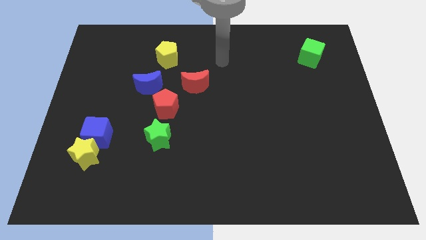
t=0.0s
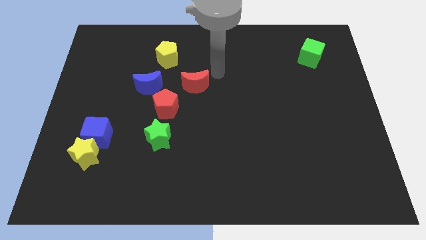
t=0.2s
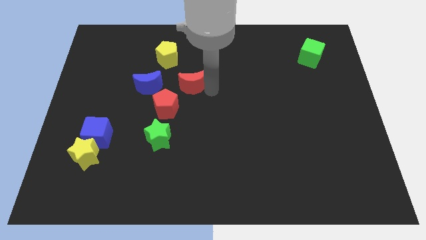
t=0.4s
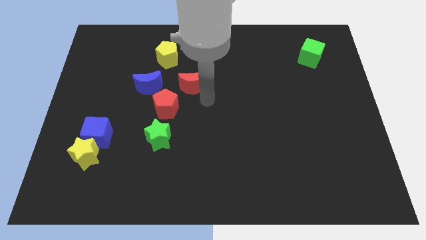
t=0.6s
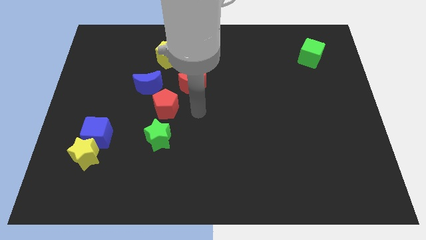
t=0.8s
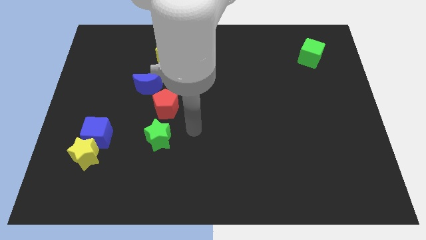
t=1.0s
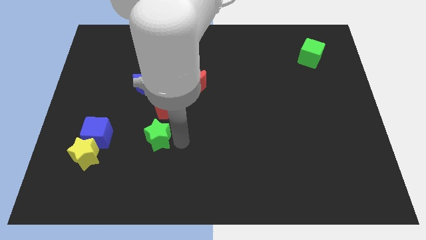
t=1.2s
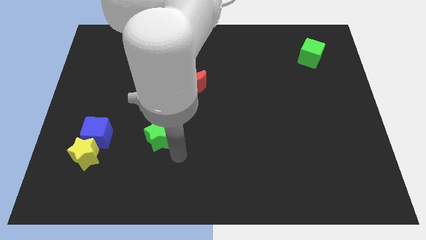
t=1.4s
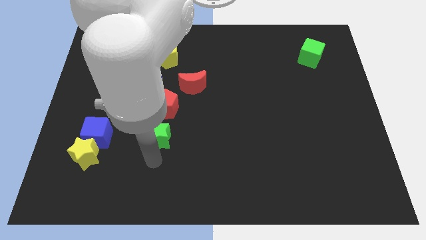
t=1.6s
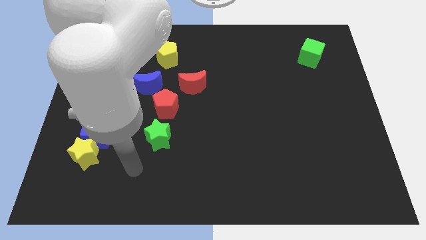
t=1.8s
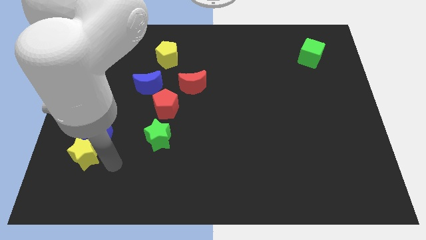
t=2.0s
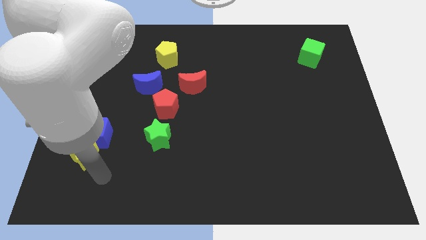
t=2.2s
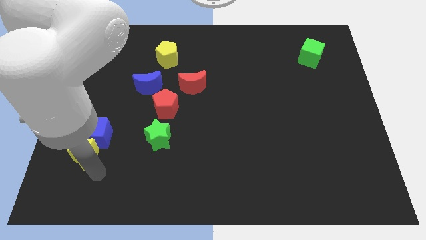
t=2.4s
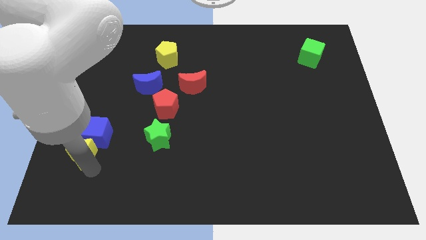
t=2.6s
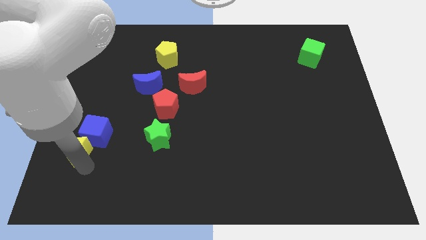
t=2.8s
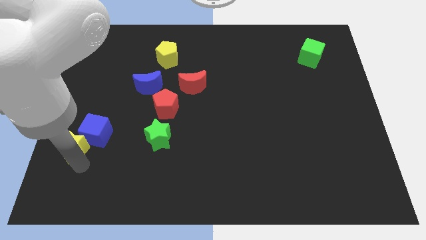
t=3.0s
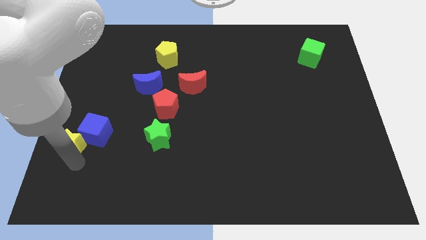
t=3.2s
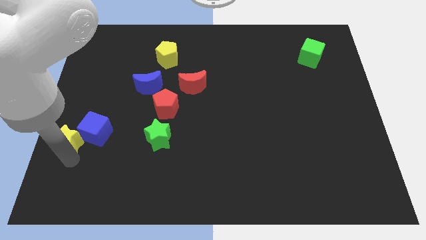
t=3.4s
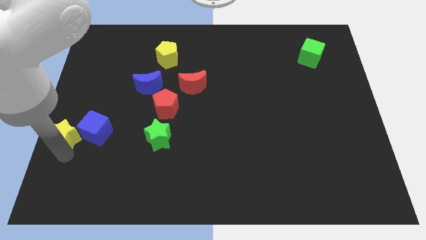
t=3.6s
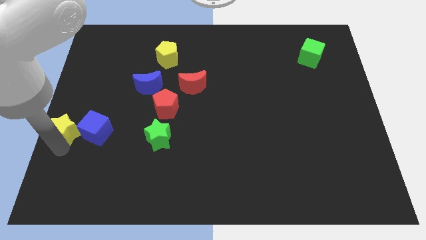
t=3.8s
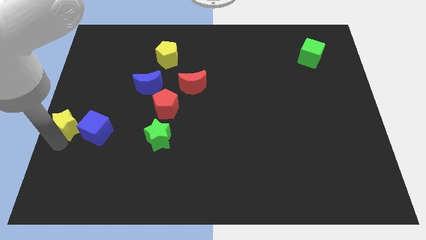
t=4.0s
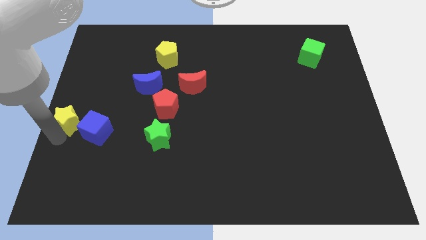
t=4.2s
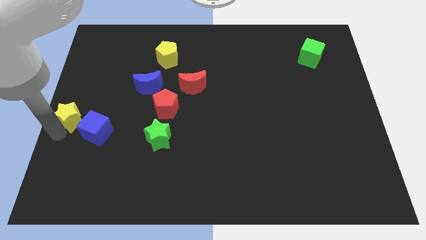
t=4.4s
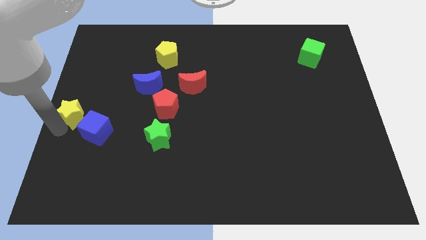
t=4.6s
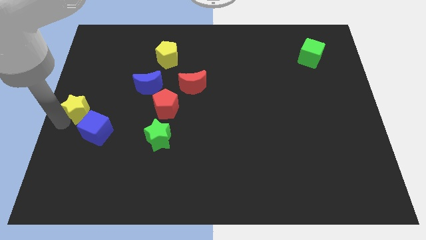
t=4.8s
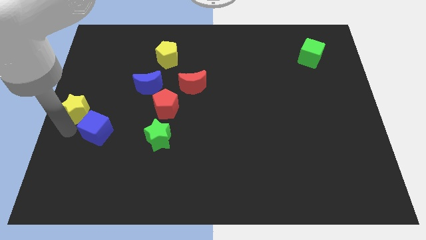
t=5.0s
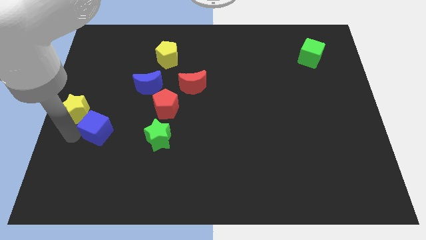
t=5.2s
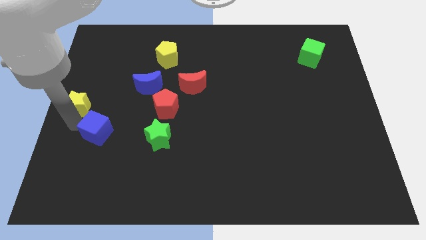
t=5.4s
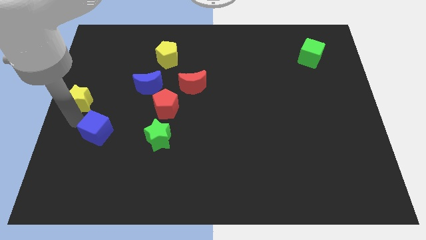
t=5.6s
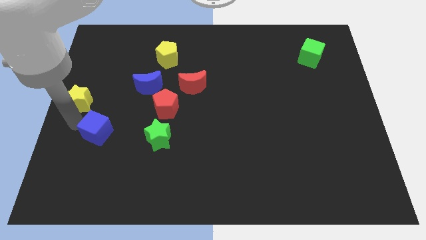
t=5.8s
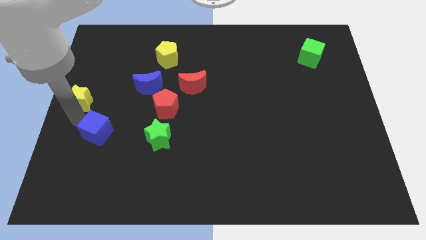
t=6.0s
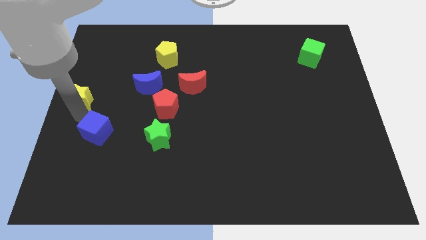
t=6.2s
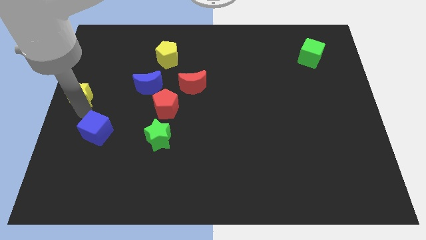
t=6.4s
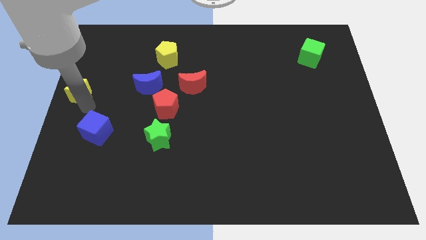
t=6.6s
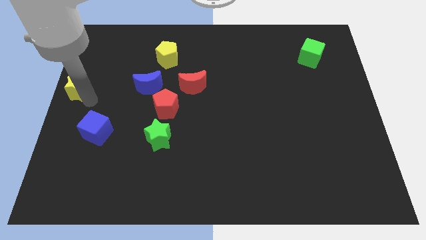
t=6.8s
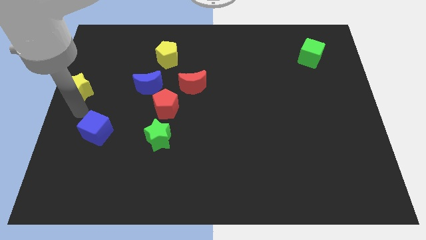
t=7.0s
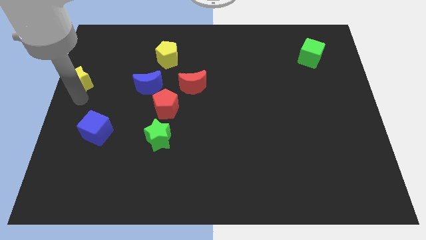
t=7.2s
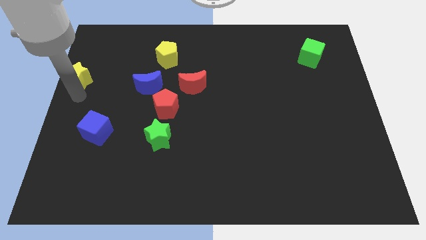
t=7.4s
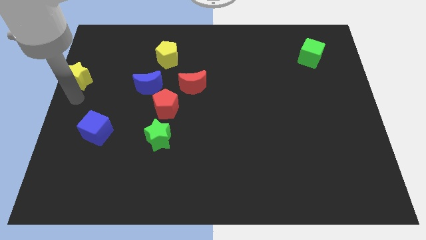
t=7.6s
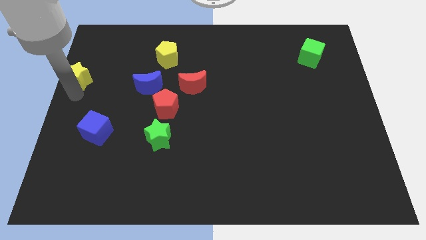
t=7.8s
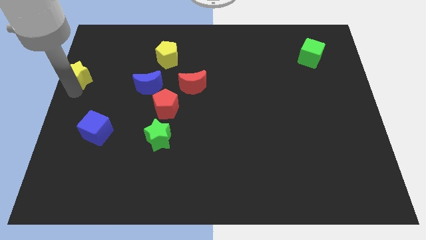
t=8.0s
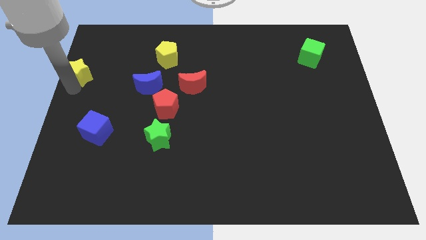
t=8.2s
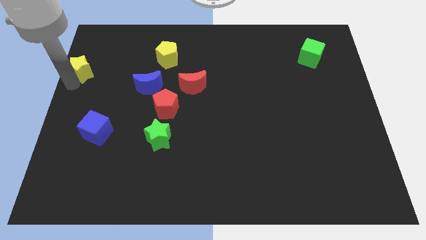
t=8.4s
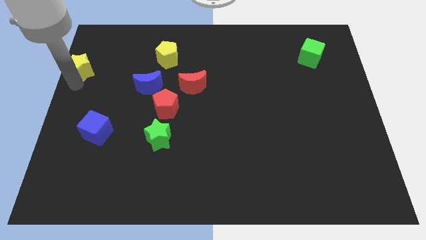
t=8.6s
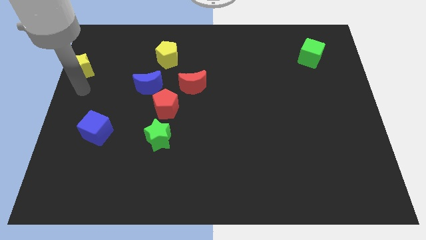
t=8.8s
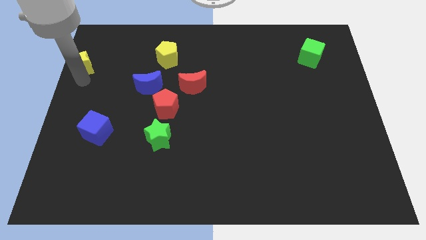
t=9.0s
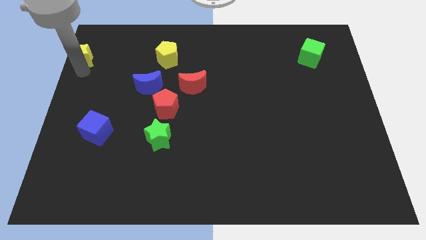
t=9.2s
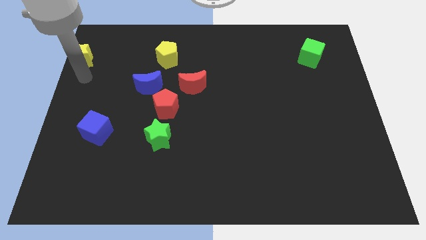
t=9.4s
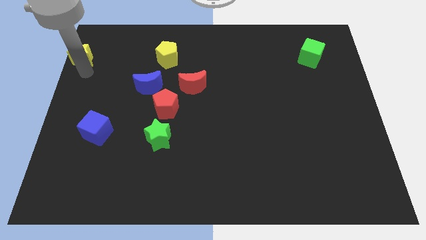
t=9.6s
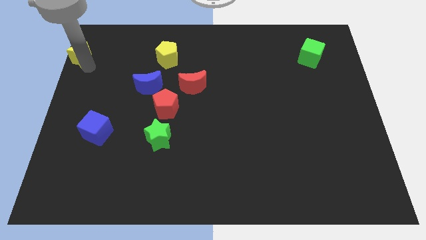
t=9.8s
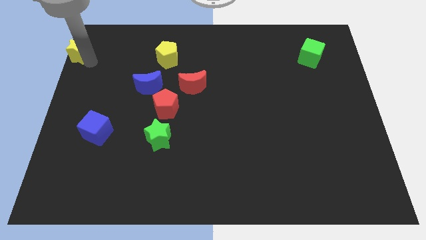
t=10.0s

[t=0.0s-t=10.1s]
push the yellow star to the top left of the board

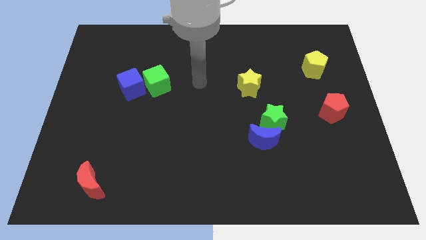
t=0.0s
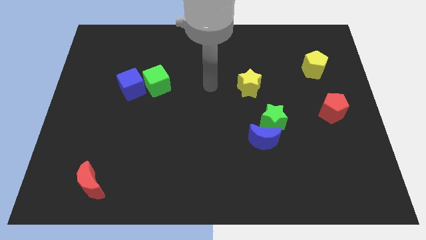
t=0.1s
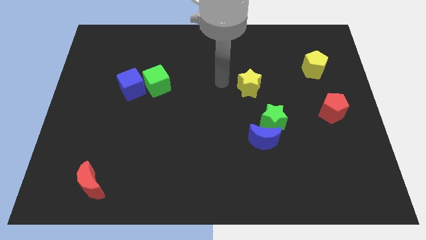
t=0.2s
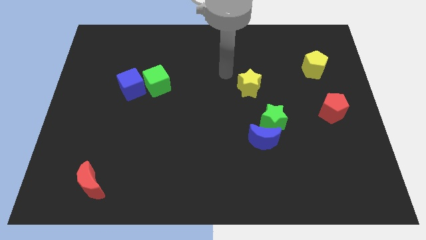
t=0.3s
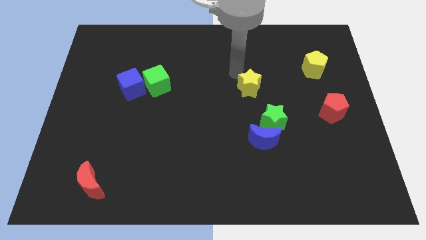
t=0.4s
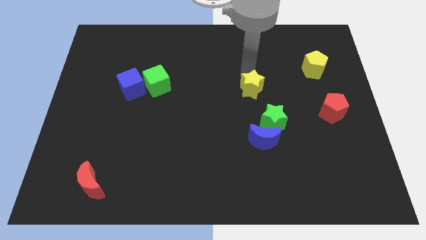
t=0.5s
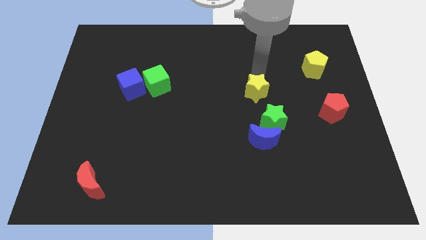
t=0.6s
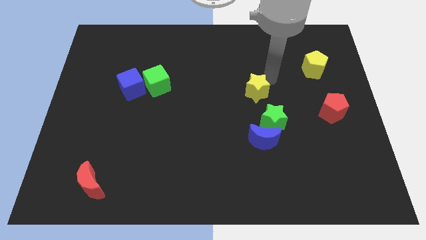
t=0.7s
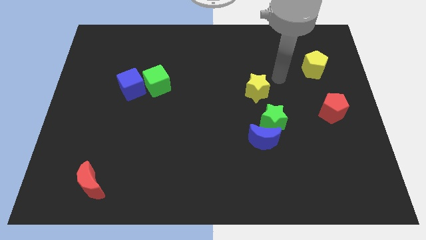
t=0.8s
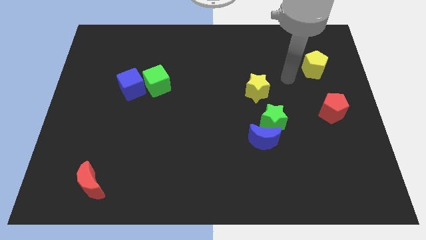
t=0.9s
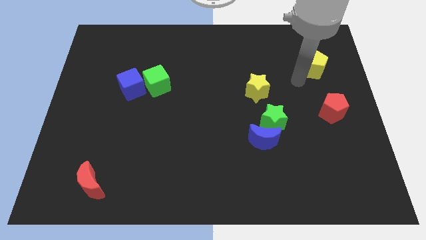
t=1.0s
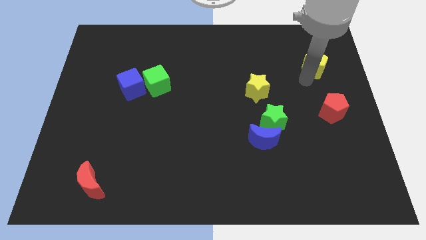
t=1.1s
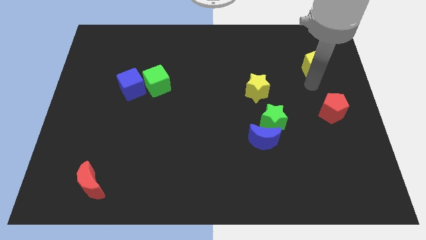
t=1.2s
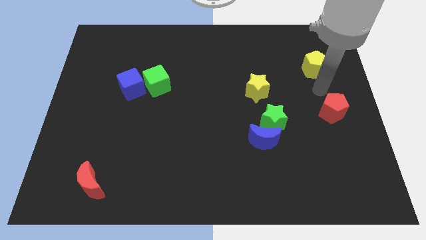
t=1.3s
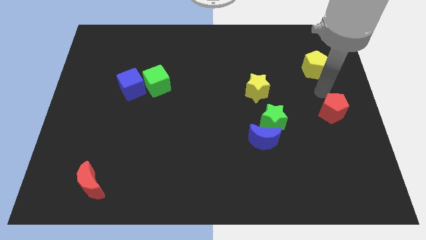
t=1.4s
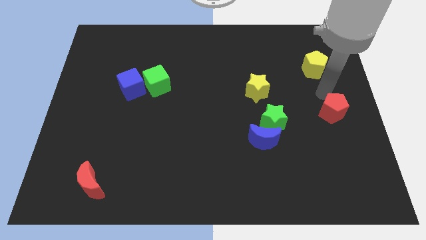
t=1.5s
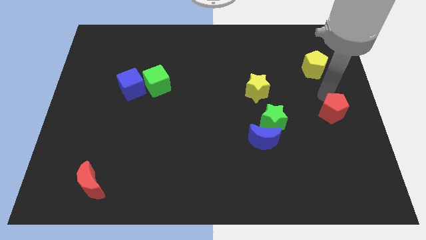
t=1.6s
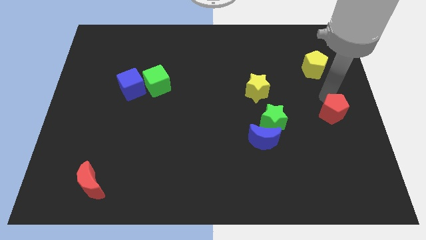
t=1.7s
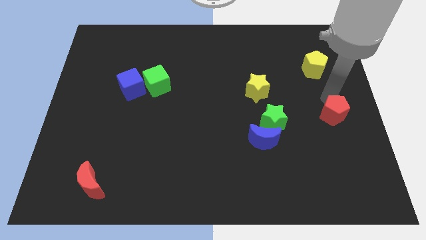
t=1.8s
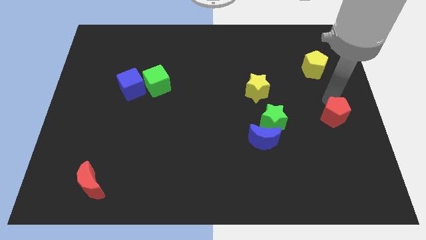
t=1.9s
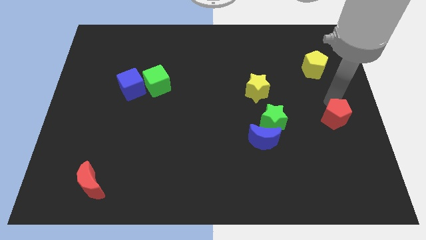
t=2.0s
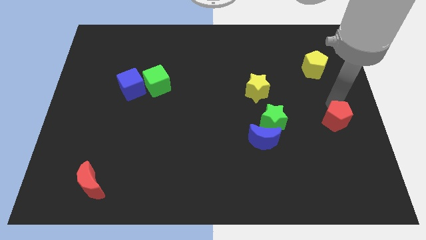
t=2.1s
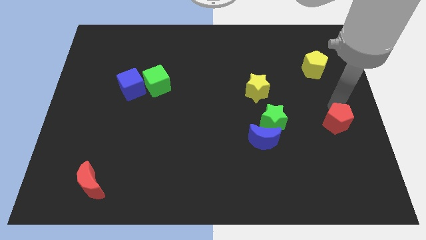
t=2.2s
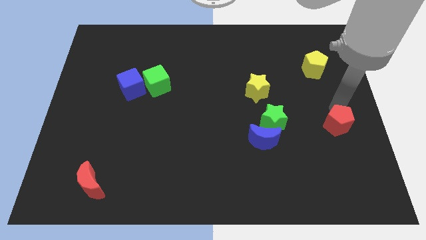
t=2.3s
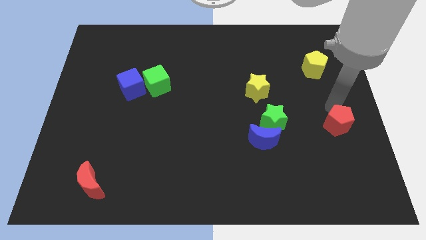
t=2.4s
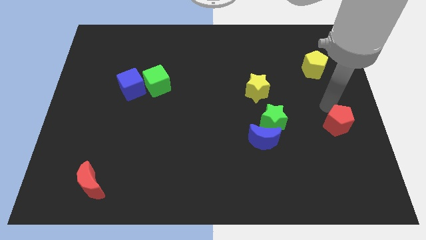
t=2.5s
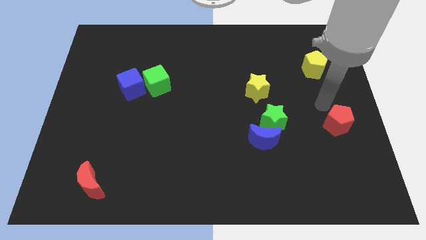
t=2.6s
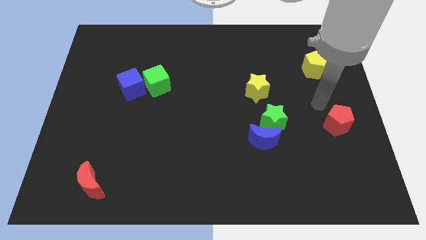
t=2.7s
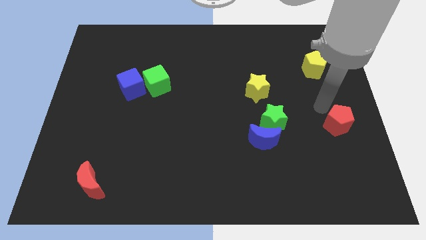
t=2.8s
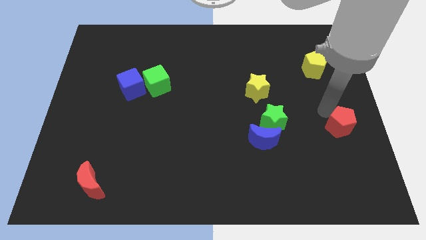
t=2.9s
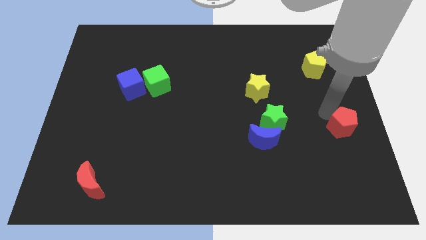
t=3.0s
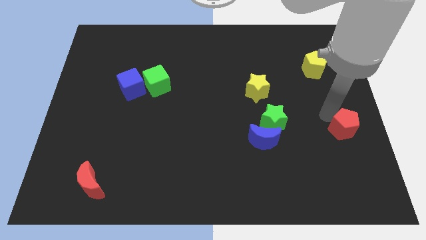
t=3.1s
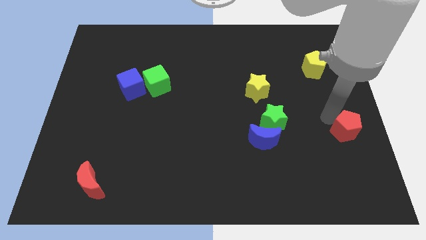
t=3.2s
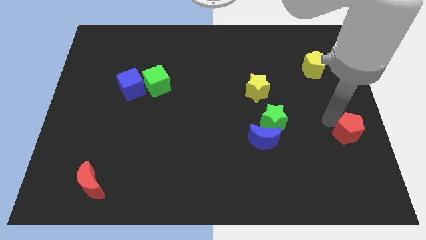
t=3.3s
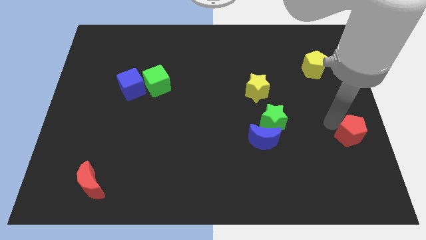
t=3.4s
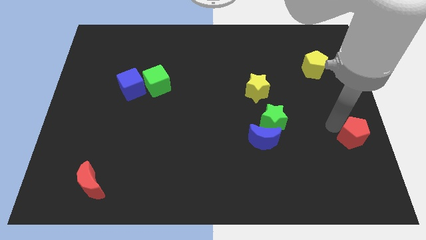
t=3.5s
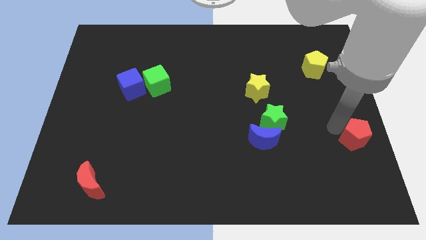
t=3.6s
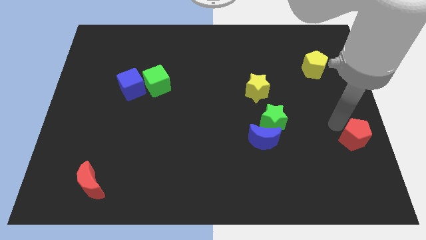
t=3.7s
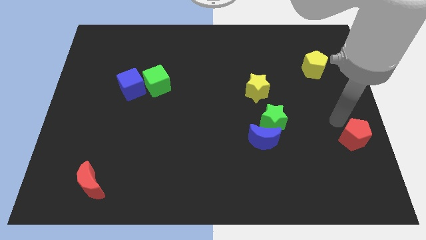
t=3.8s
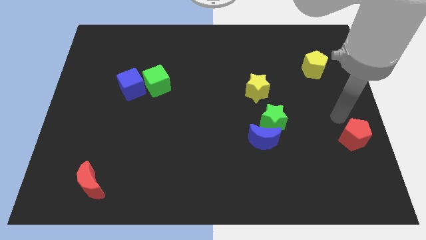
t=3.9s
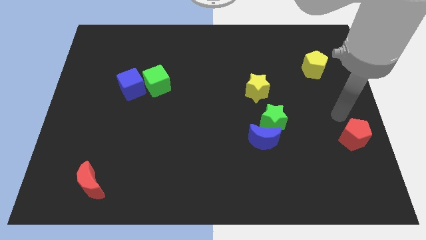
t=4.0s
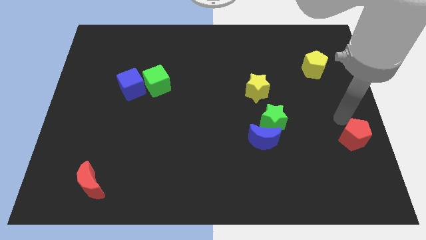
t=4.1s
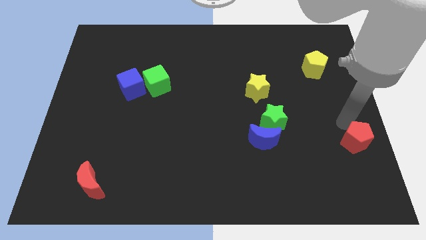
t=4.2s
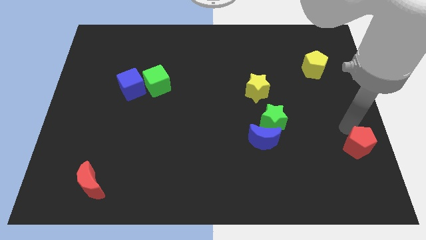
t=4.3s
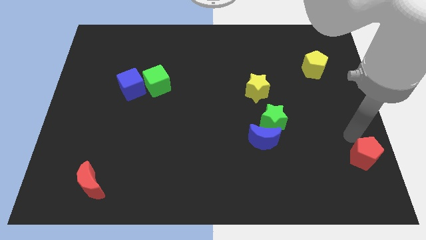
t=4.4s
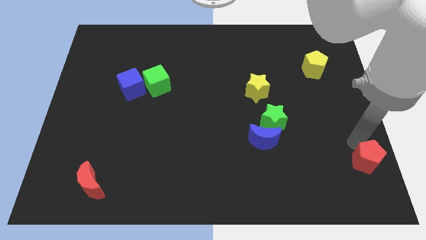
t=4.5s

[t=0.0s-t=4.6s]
slide the red pentagon to the bottom right
